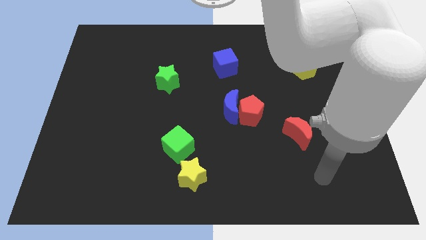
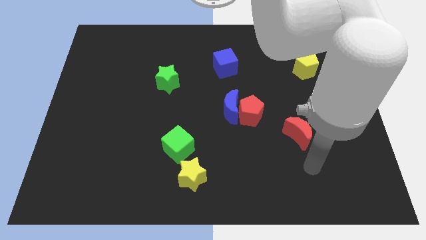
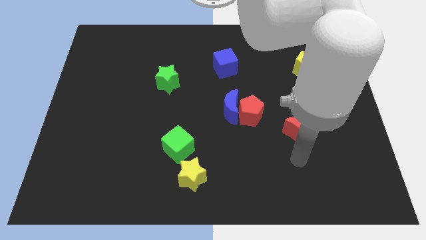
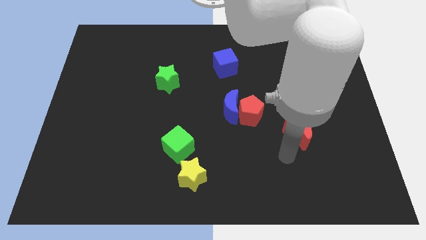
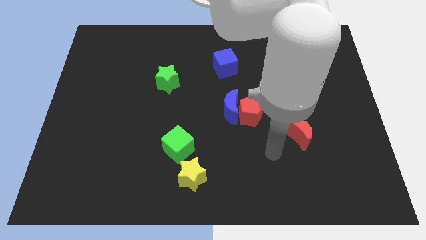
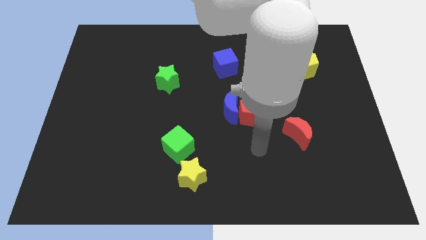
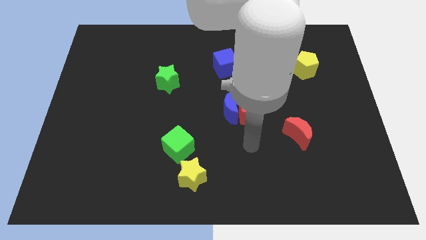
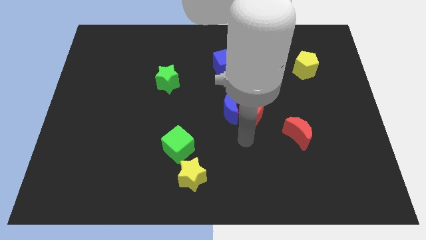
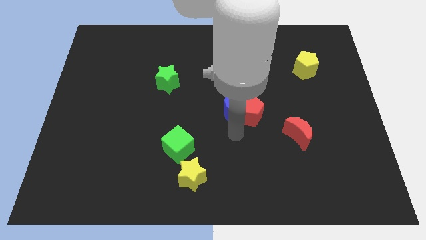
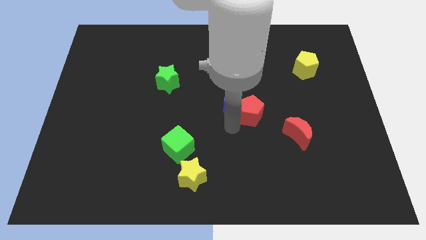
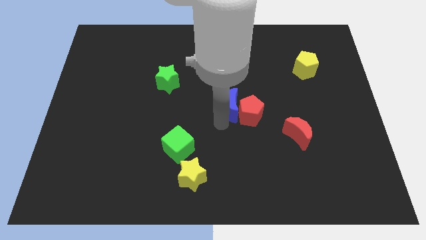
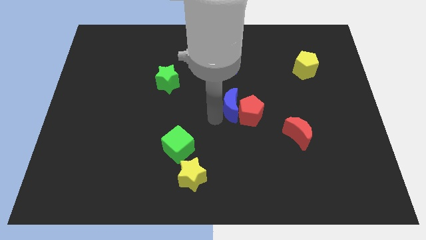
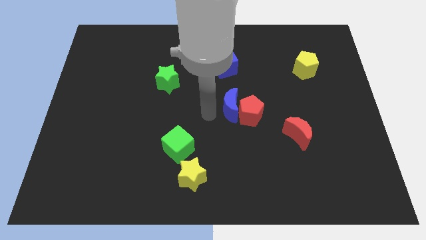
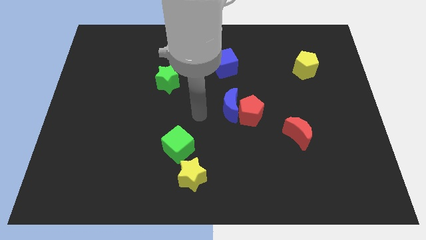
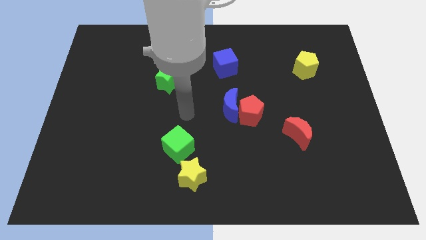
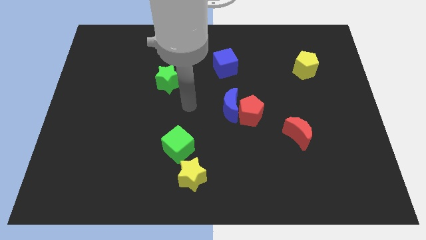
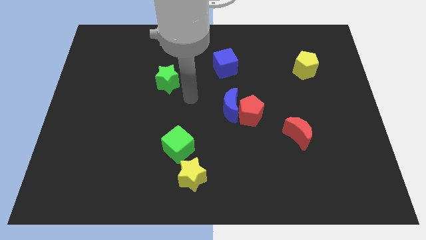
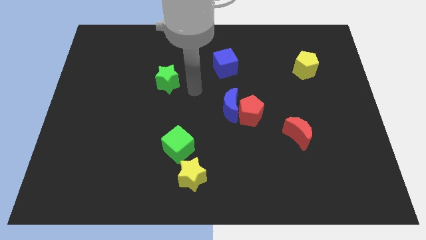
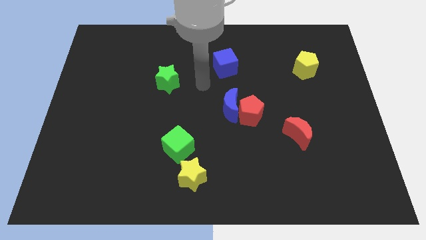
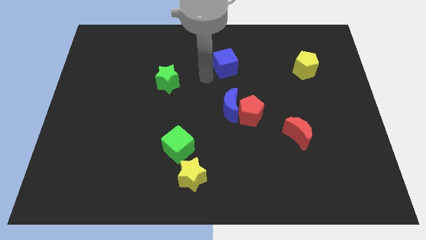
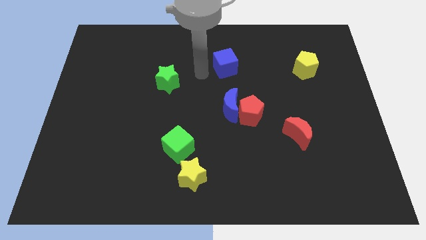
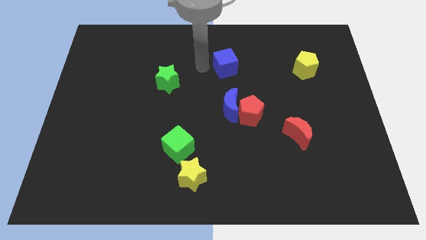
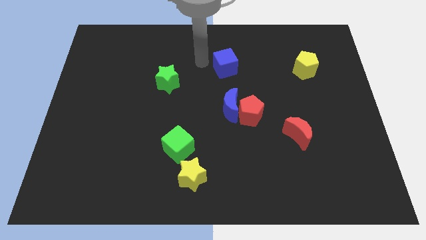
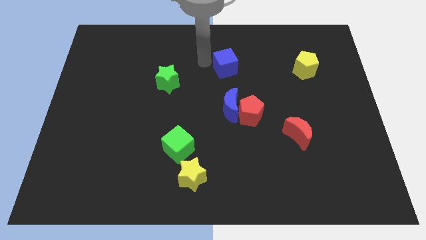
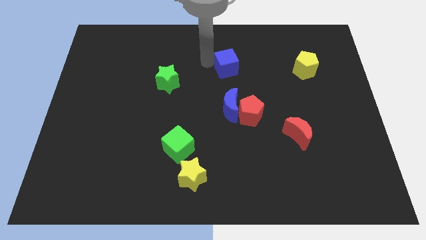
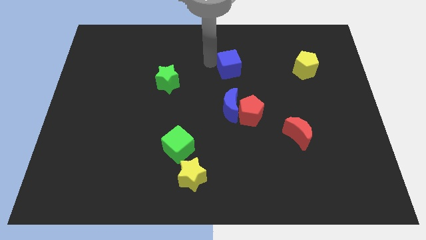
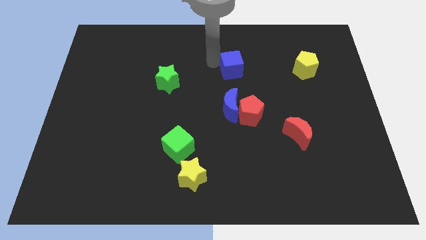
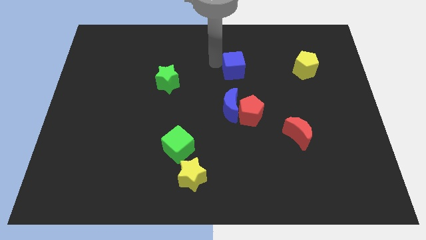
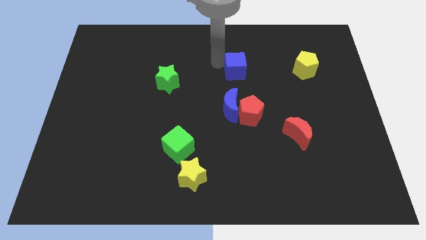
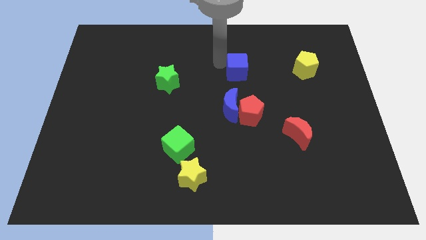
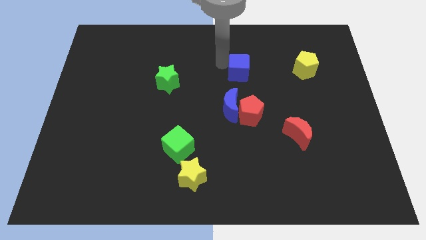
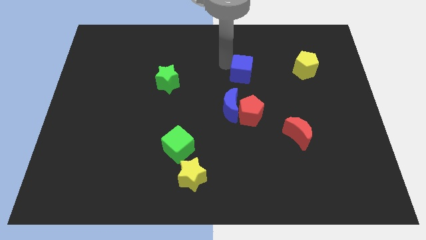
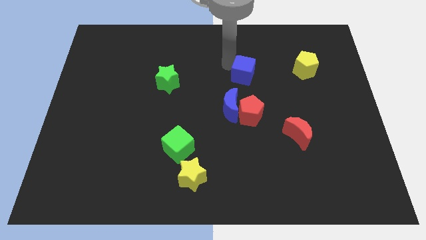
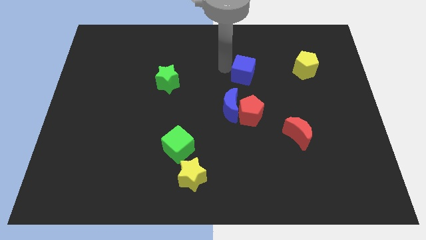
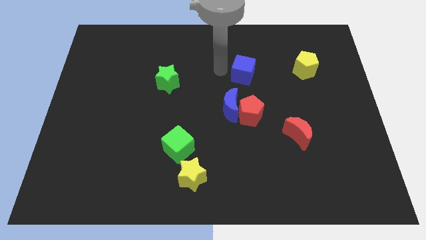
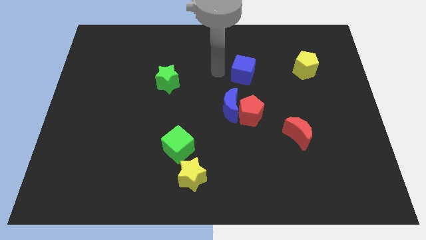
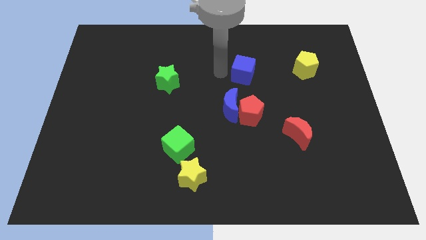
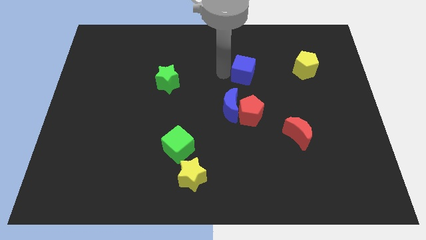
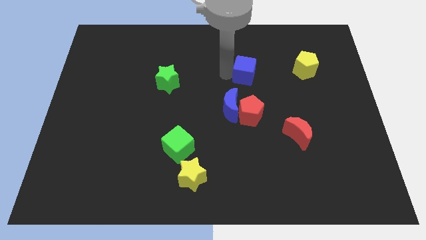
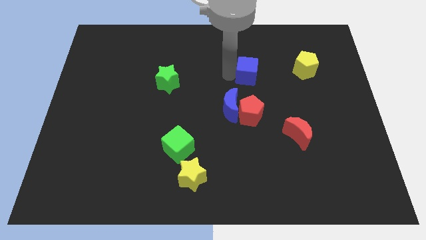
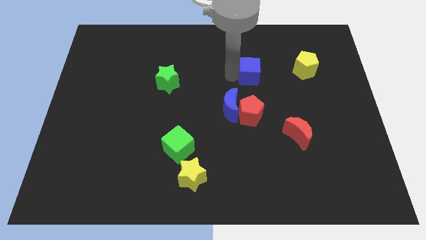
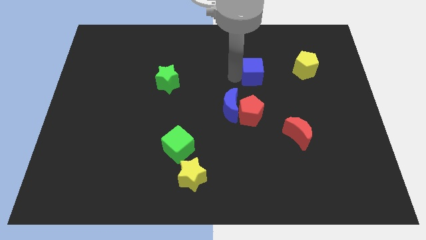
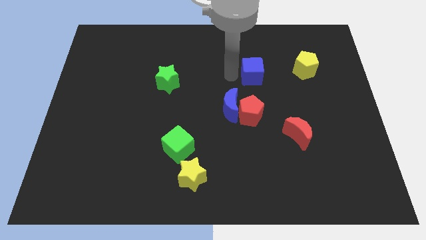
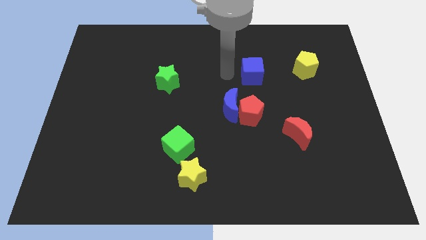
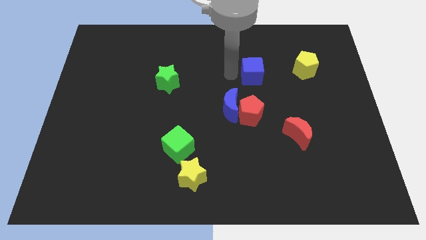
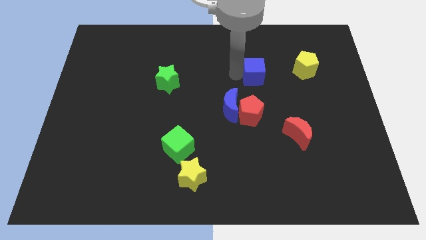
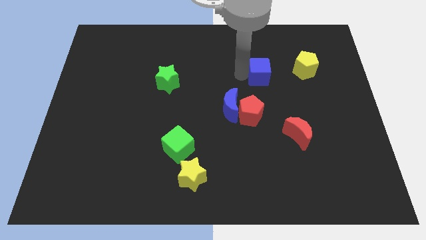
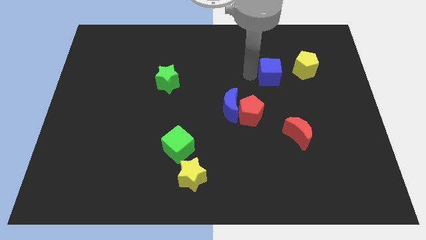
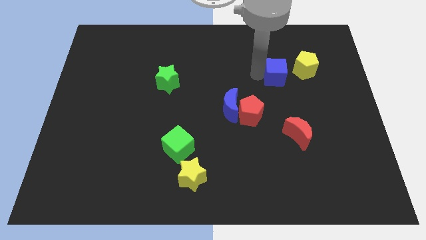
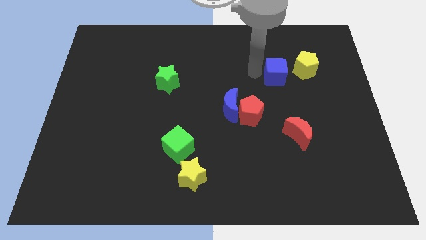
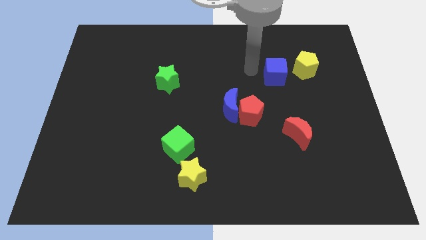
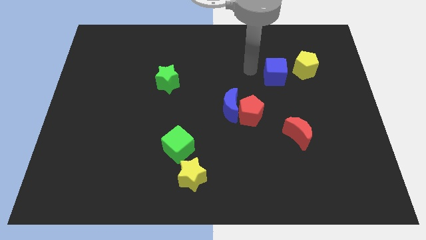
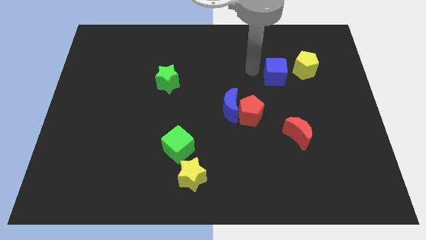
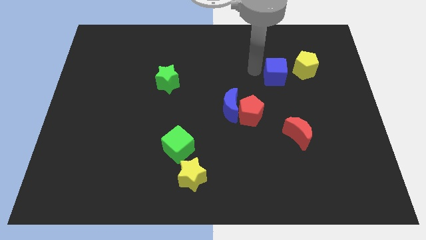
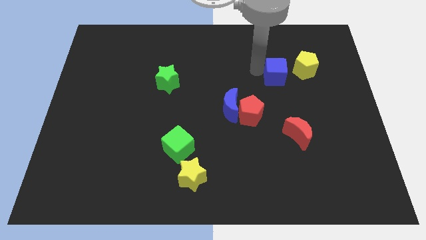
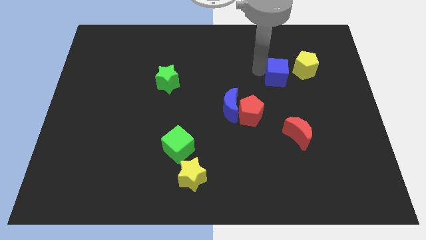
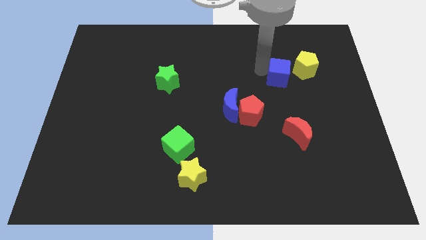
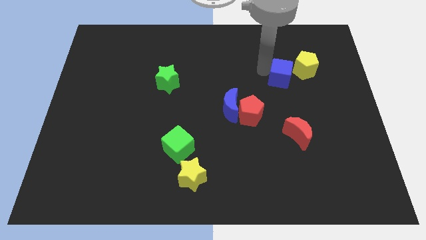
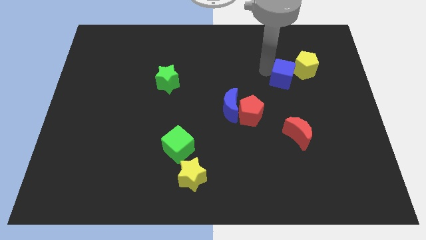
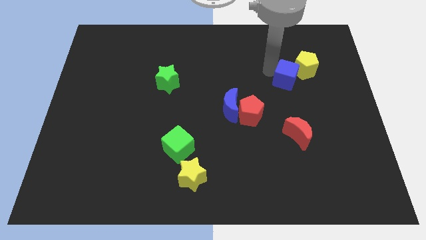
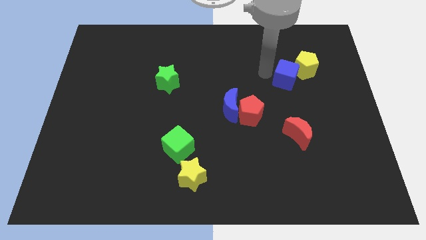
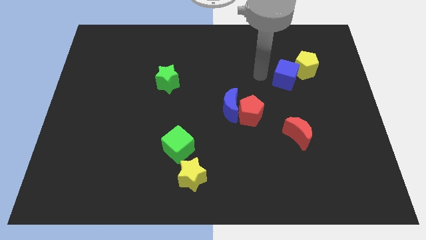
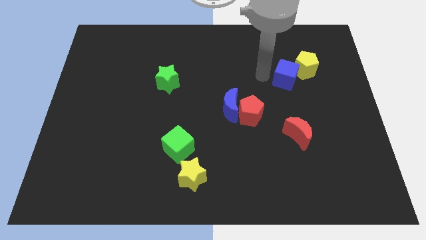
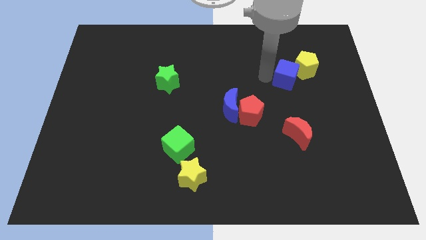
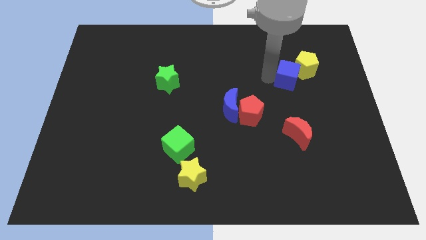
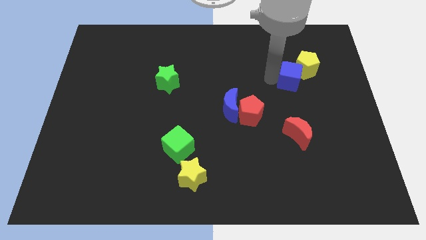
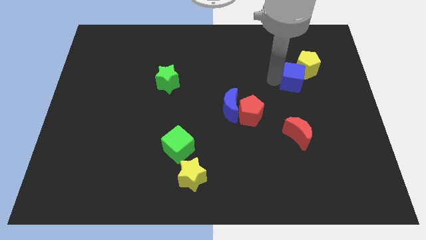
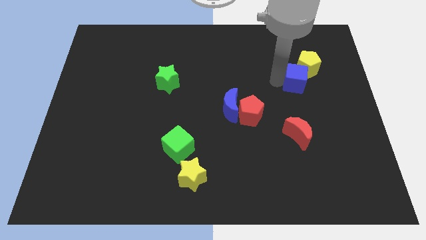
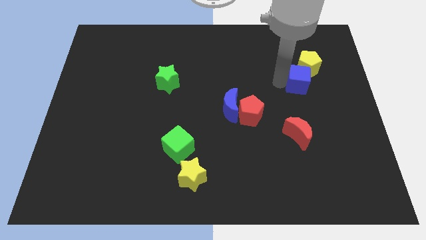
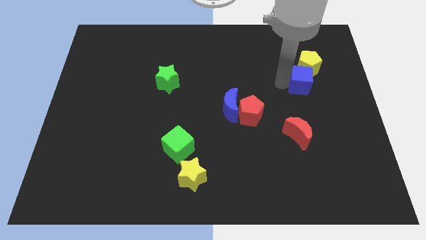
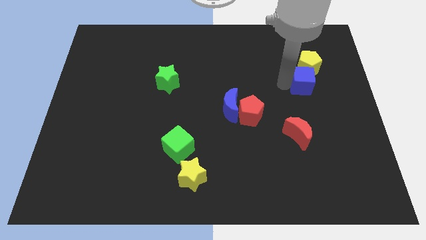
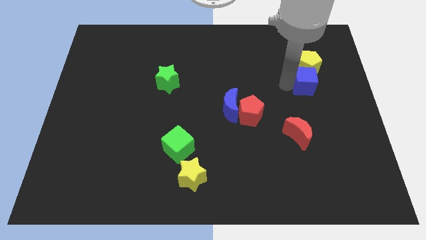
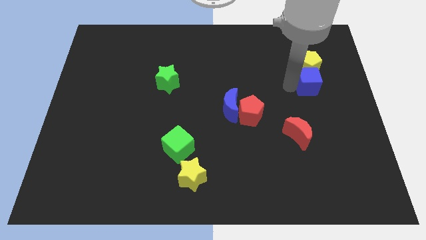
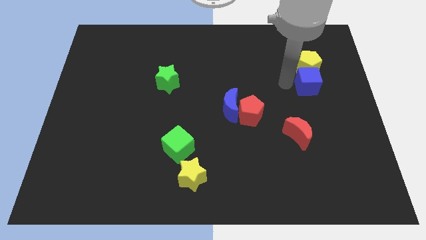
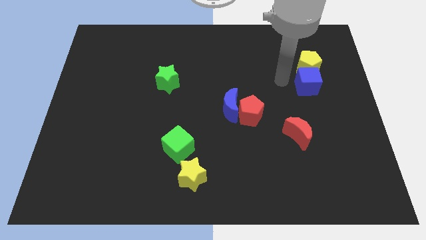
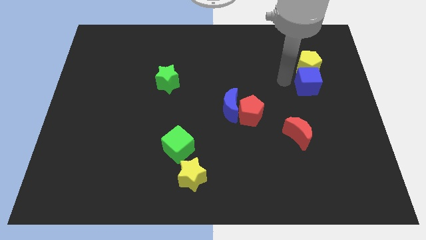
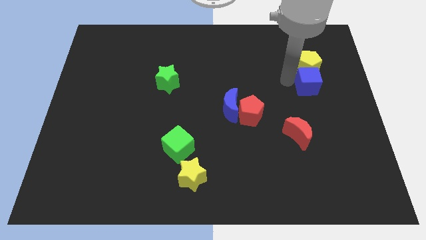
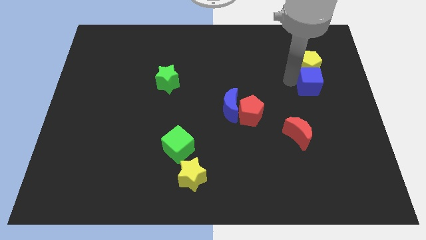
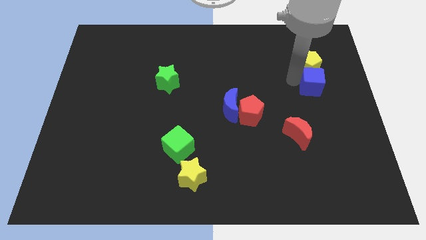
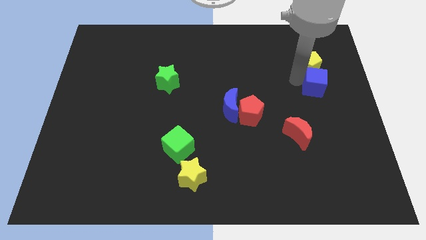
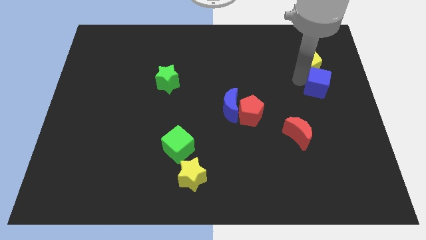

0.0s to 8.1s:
push the blue cube to the right side of the board
